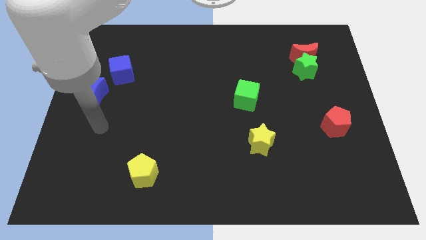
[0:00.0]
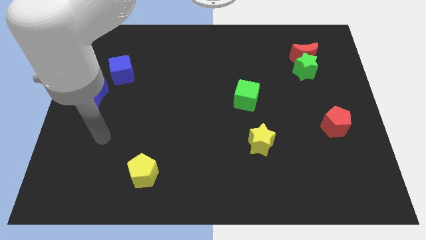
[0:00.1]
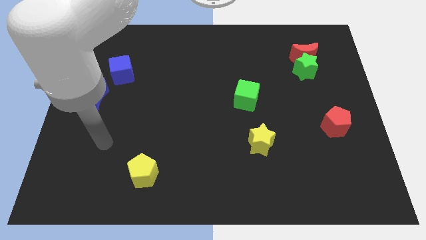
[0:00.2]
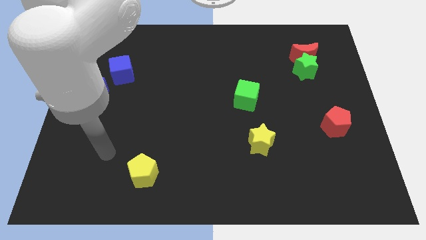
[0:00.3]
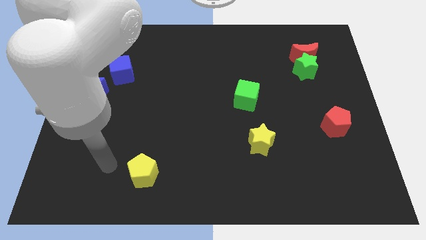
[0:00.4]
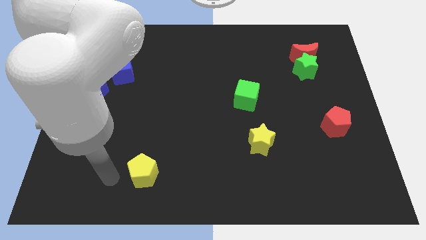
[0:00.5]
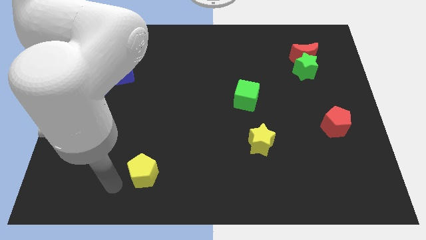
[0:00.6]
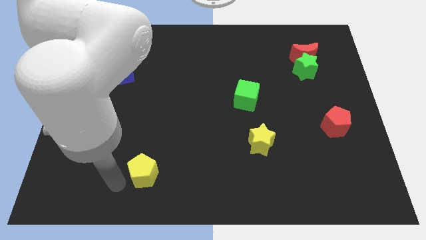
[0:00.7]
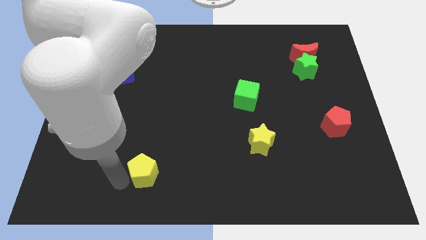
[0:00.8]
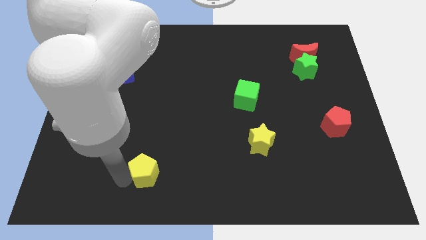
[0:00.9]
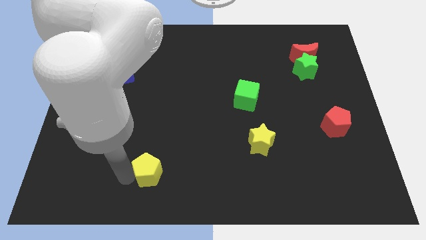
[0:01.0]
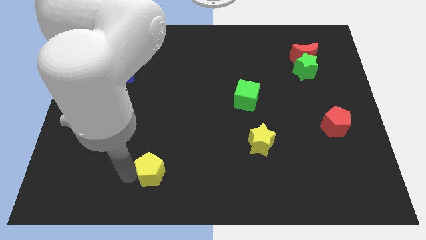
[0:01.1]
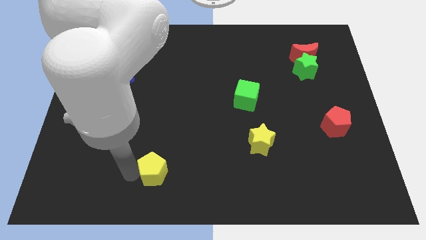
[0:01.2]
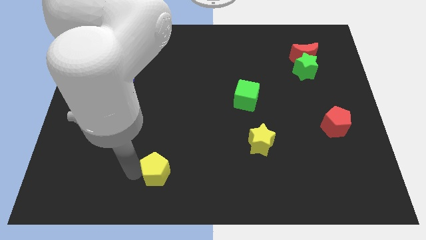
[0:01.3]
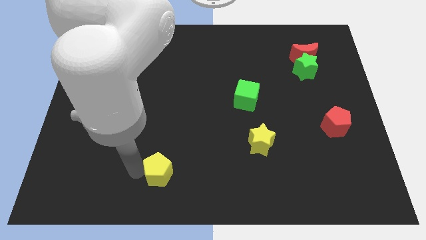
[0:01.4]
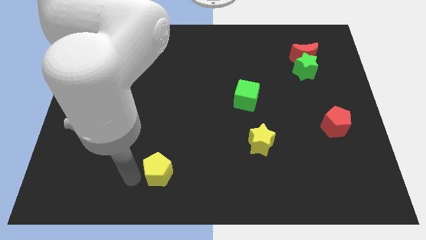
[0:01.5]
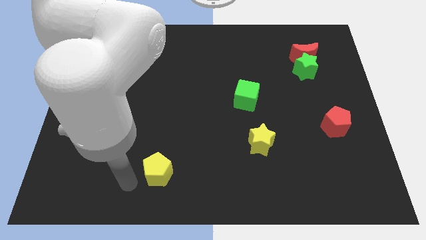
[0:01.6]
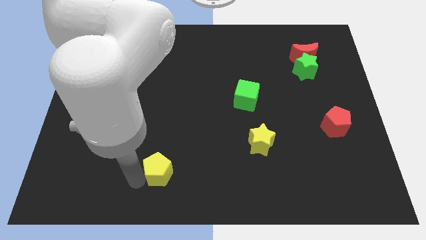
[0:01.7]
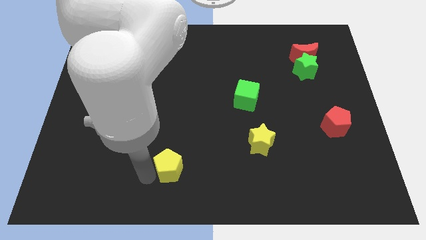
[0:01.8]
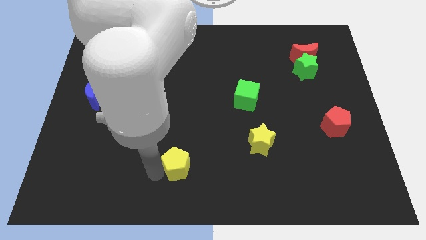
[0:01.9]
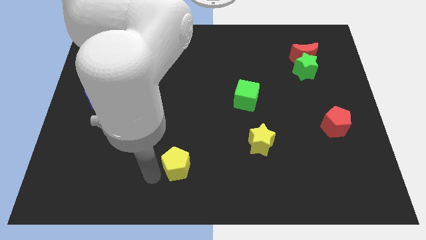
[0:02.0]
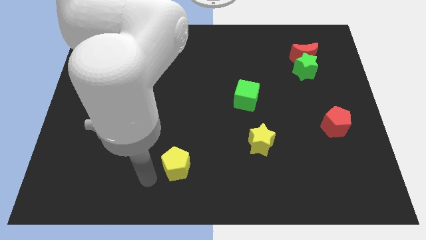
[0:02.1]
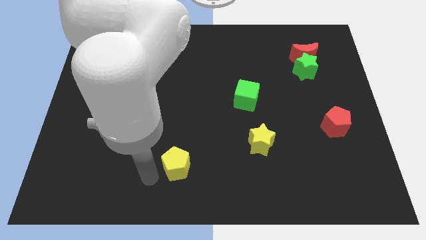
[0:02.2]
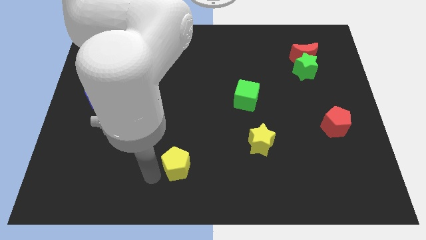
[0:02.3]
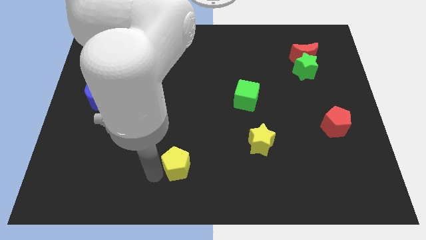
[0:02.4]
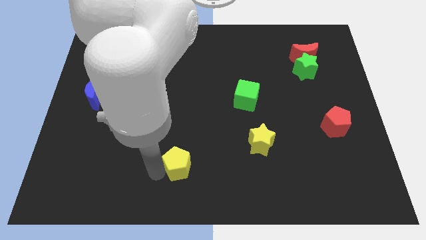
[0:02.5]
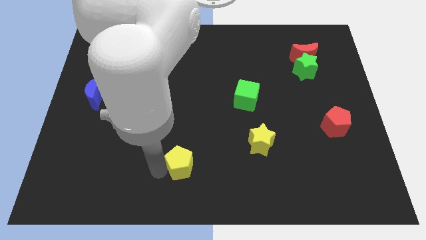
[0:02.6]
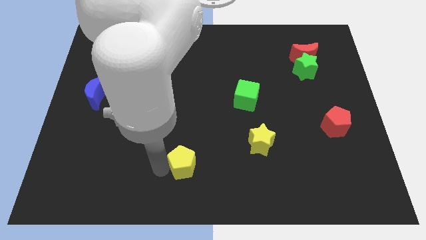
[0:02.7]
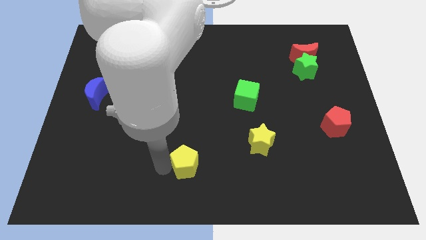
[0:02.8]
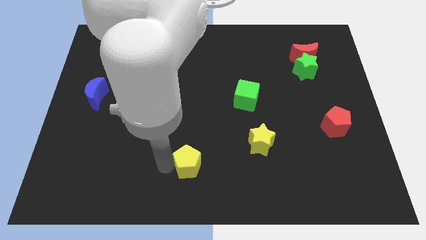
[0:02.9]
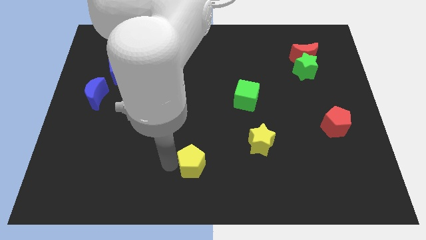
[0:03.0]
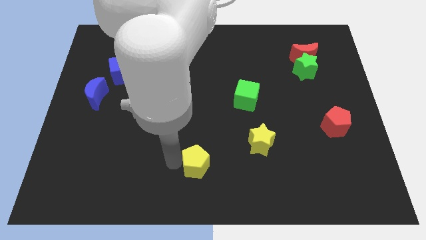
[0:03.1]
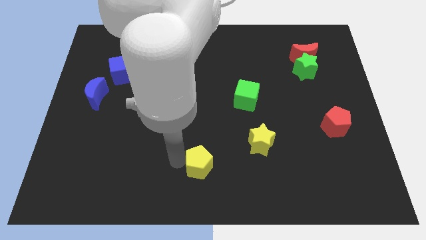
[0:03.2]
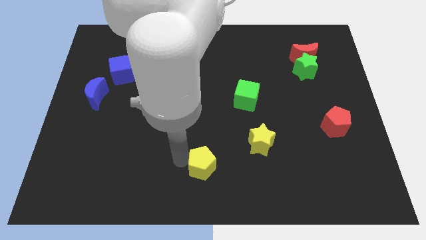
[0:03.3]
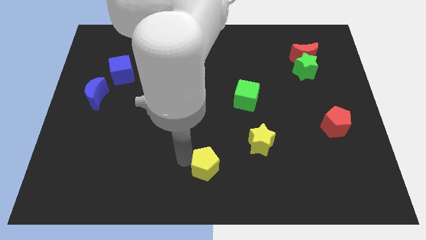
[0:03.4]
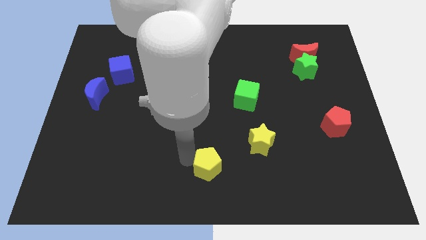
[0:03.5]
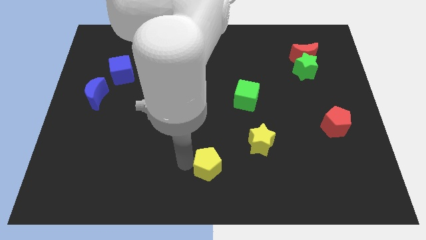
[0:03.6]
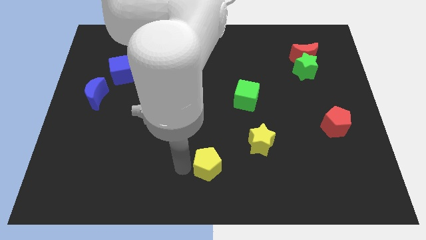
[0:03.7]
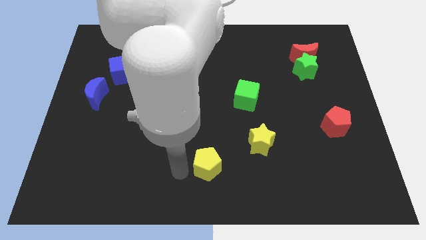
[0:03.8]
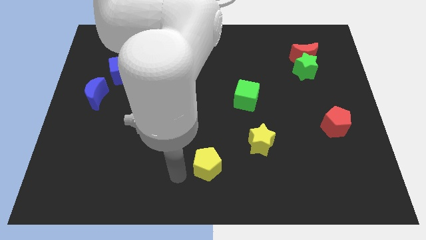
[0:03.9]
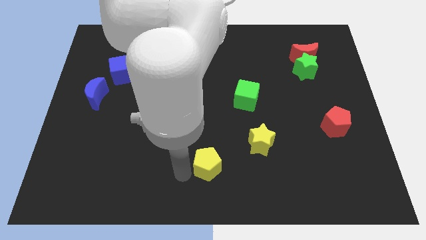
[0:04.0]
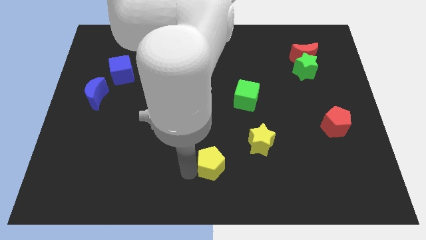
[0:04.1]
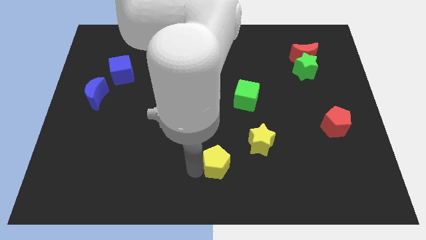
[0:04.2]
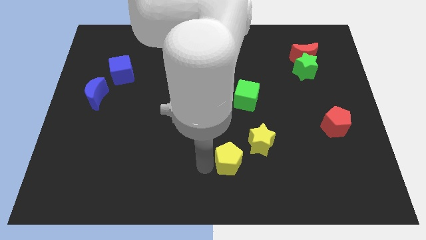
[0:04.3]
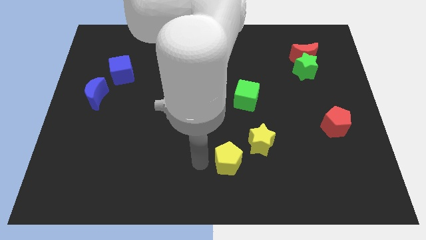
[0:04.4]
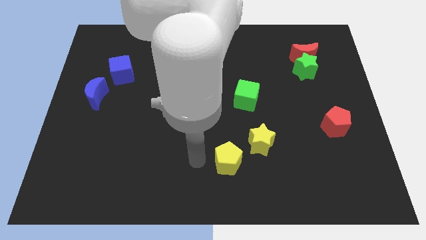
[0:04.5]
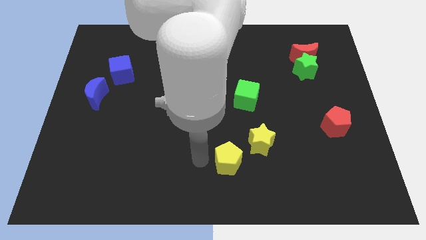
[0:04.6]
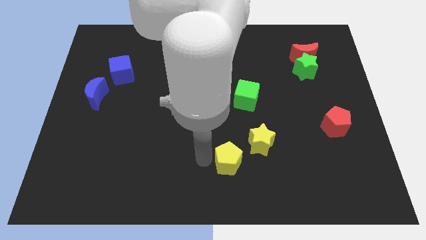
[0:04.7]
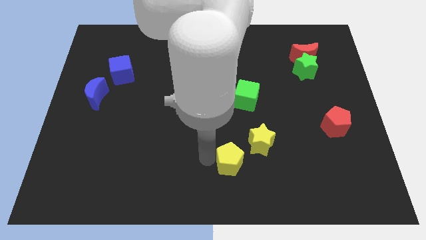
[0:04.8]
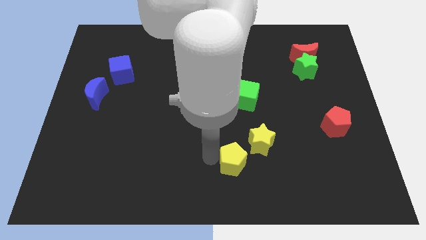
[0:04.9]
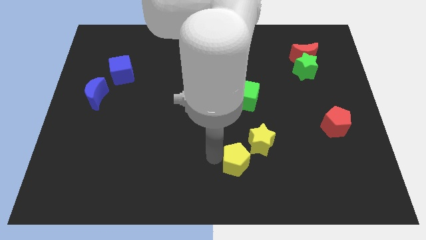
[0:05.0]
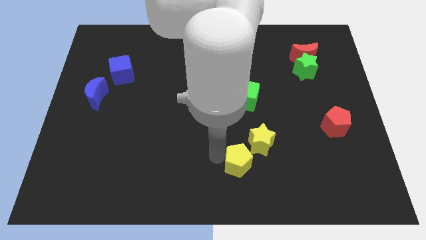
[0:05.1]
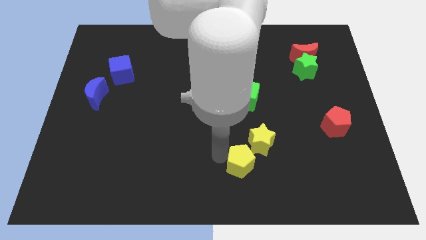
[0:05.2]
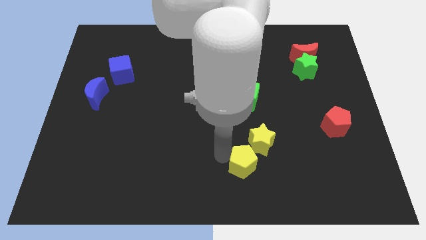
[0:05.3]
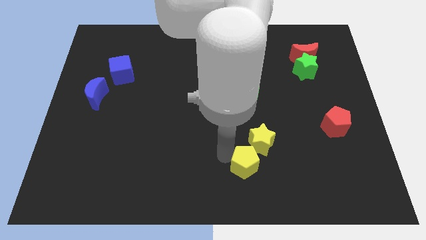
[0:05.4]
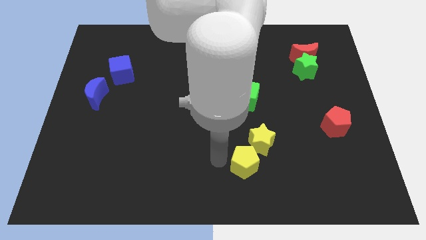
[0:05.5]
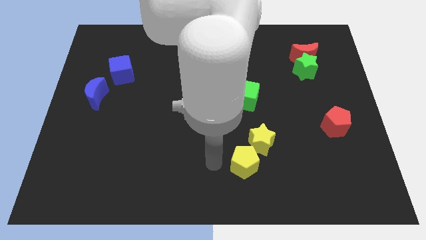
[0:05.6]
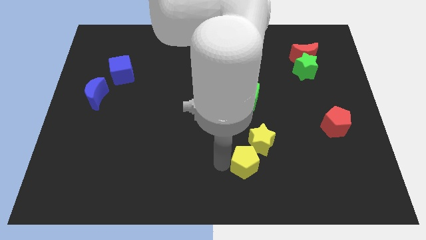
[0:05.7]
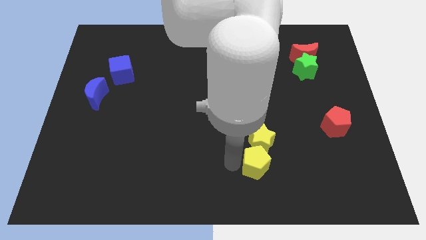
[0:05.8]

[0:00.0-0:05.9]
move the yellow pentagon diagonally down and to the right of the yellow star

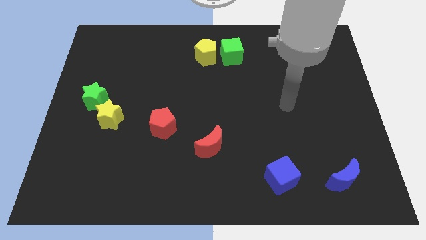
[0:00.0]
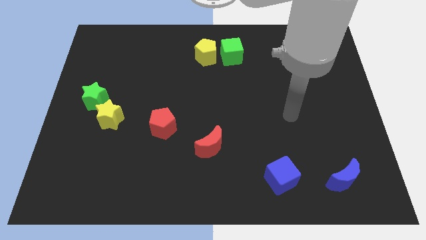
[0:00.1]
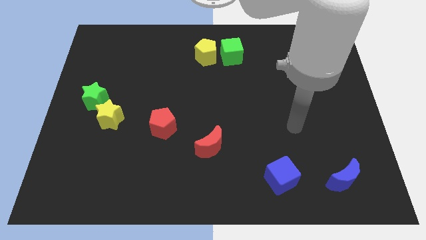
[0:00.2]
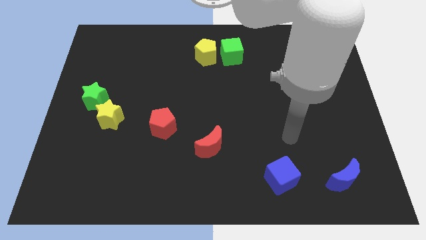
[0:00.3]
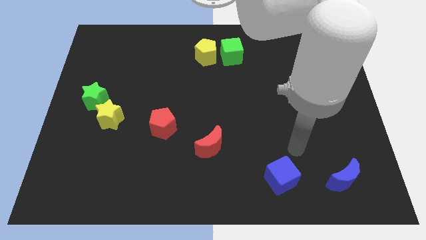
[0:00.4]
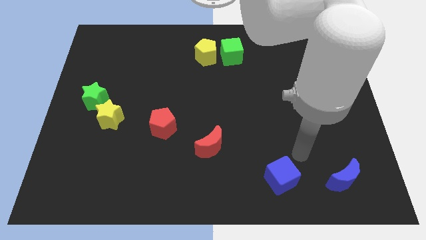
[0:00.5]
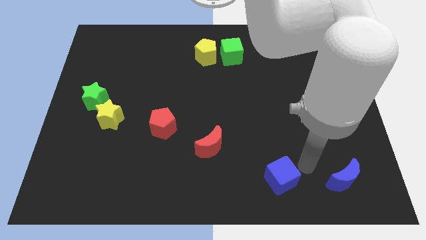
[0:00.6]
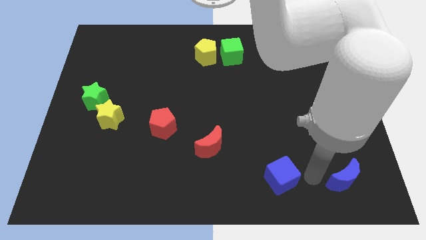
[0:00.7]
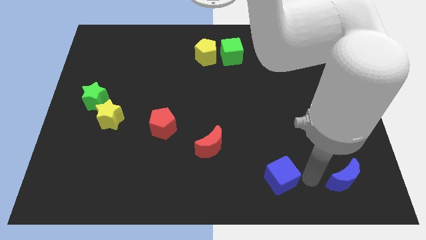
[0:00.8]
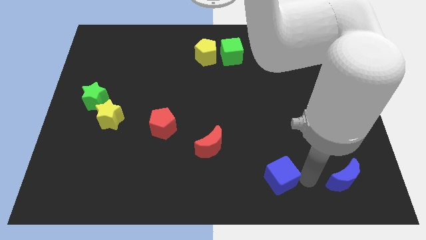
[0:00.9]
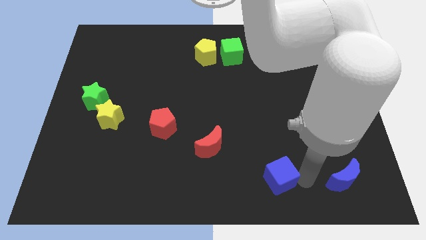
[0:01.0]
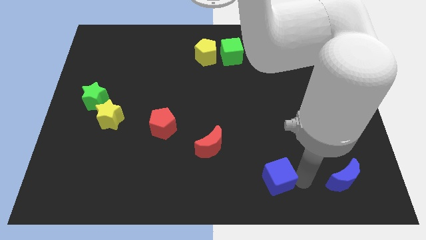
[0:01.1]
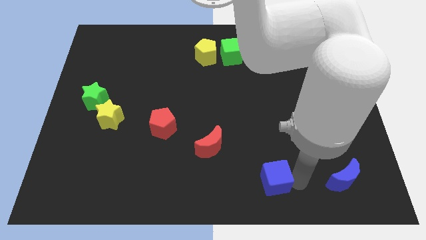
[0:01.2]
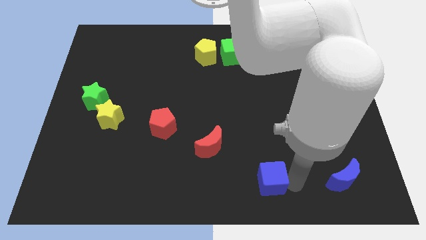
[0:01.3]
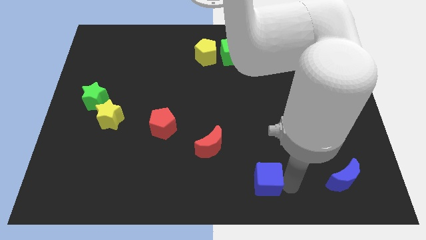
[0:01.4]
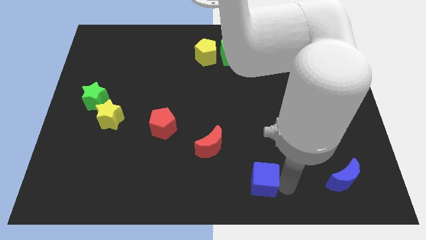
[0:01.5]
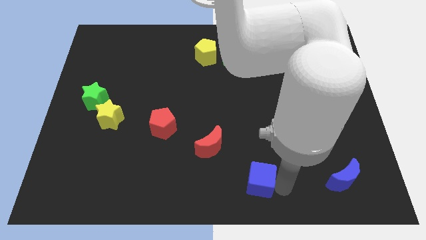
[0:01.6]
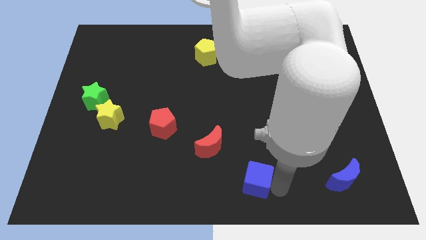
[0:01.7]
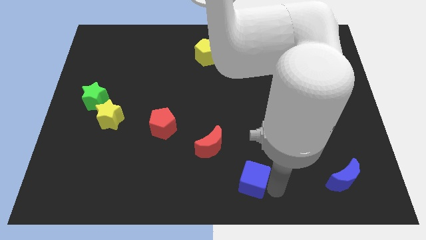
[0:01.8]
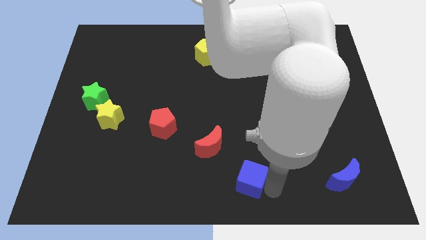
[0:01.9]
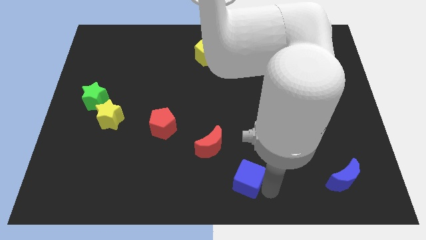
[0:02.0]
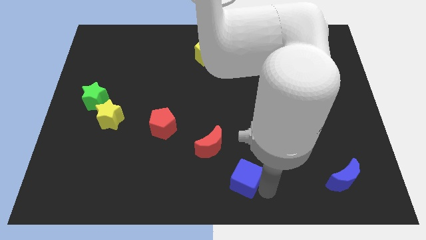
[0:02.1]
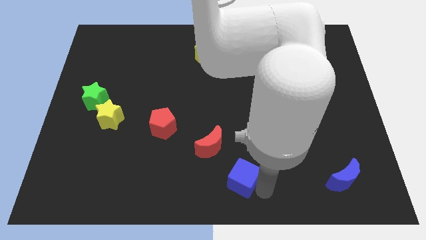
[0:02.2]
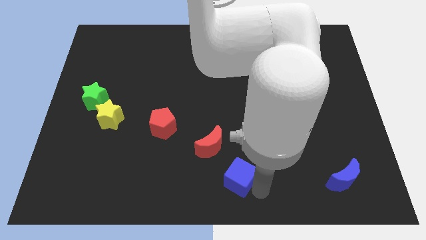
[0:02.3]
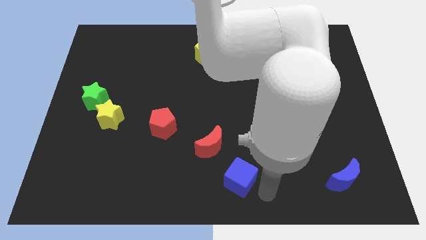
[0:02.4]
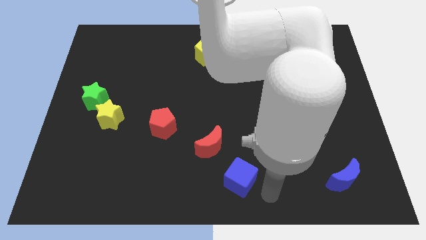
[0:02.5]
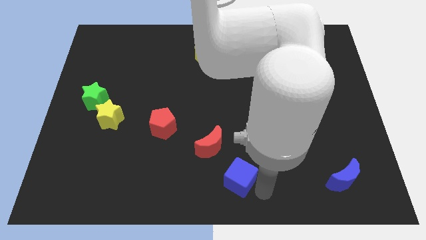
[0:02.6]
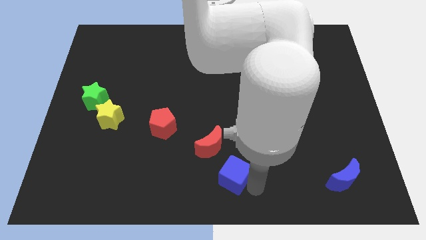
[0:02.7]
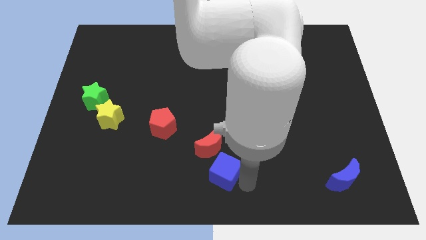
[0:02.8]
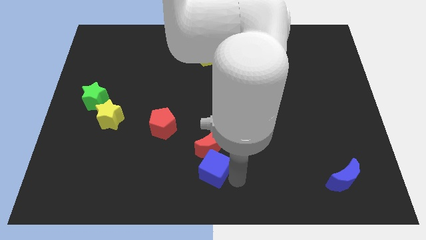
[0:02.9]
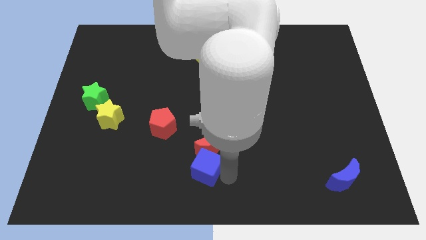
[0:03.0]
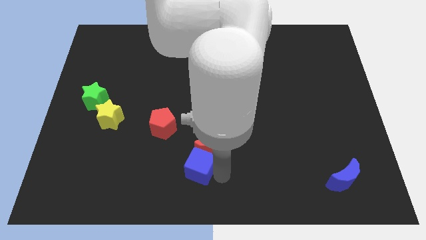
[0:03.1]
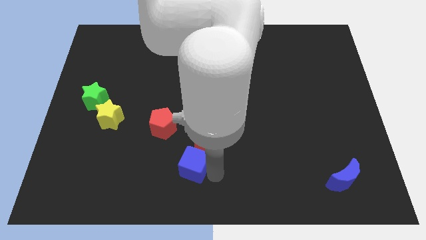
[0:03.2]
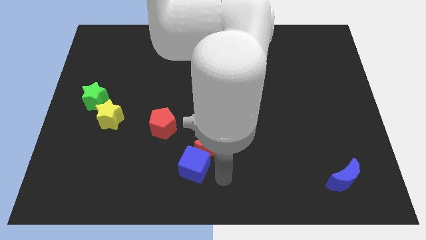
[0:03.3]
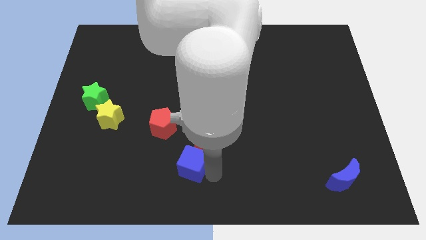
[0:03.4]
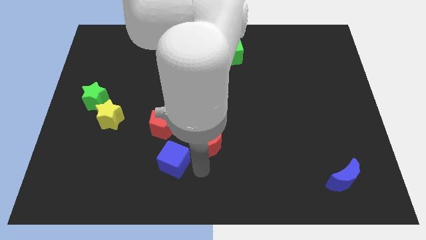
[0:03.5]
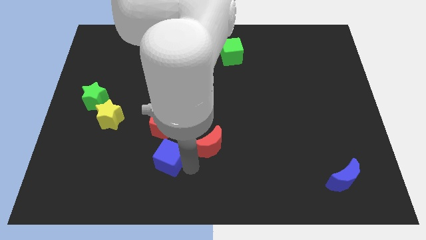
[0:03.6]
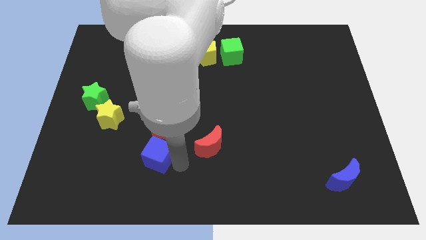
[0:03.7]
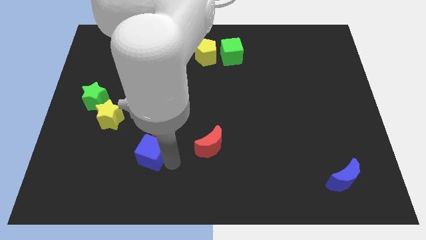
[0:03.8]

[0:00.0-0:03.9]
slide the blue cube to the bottom left side of the red pentagon
